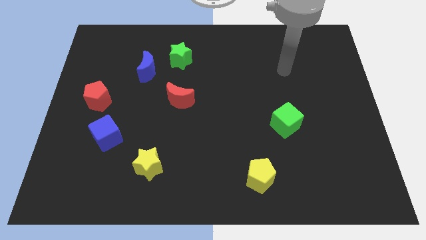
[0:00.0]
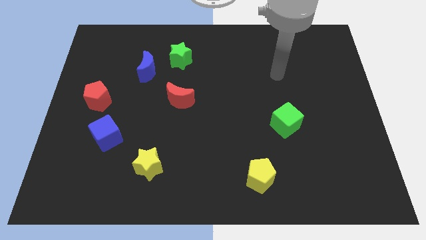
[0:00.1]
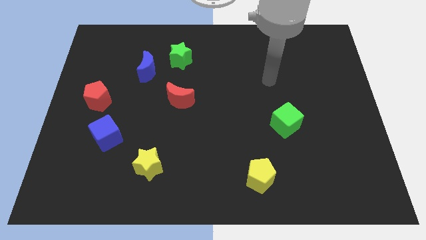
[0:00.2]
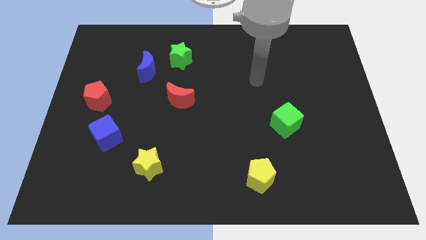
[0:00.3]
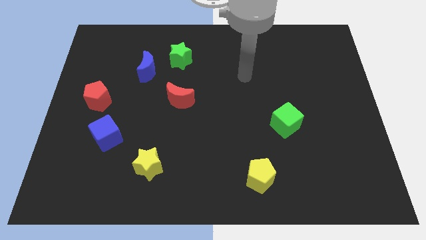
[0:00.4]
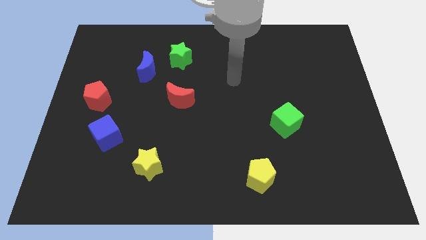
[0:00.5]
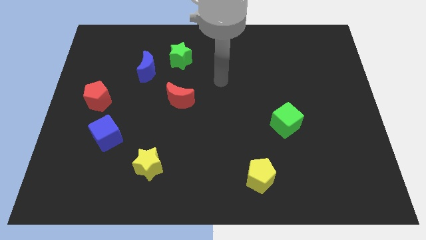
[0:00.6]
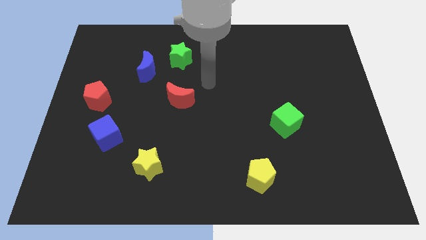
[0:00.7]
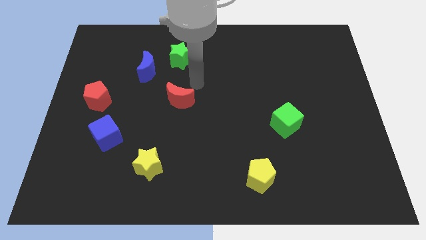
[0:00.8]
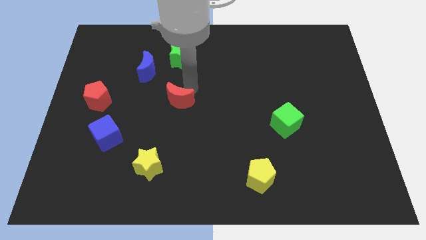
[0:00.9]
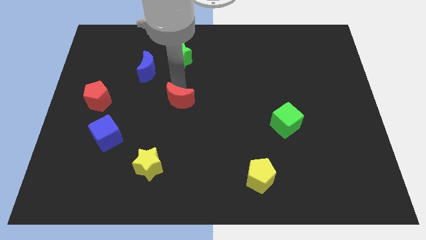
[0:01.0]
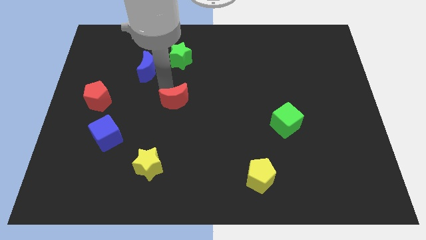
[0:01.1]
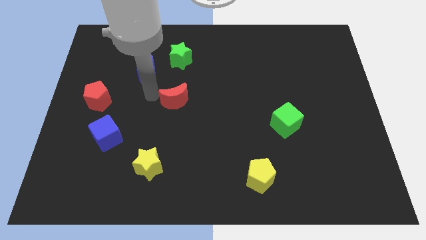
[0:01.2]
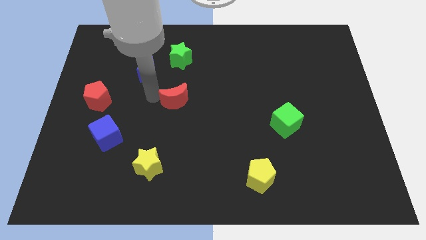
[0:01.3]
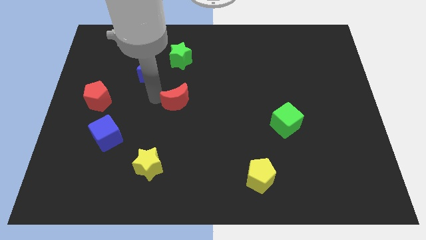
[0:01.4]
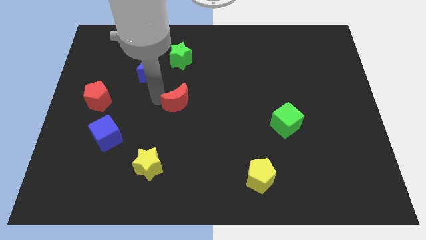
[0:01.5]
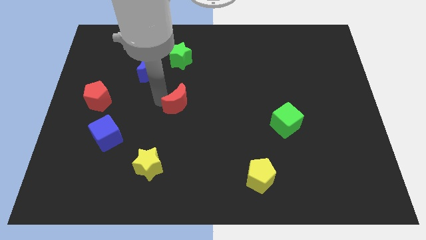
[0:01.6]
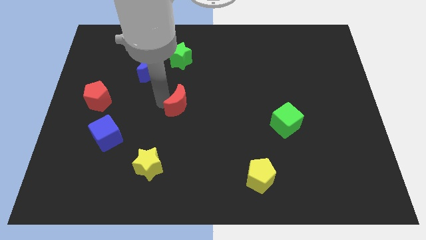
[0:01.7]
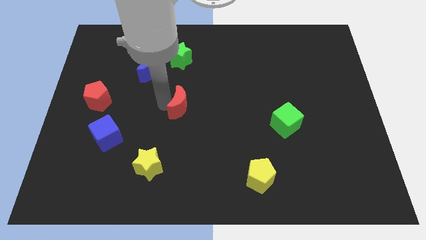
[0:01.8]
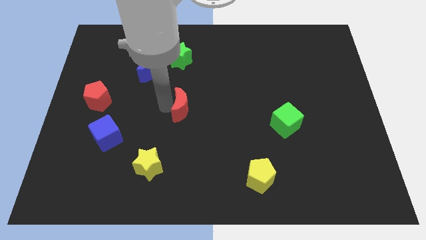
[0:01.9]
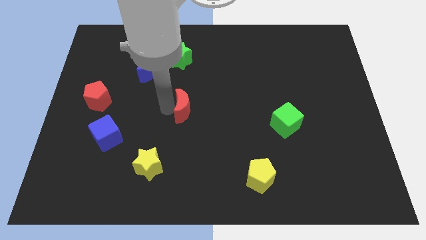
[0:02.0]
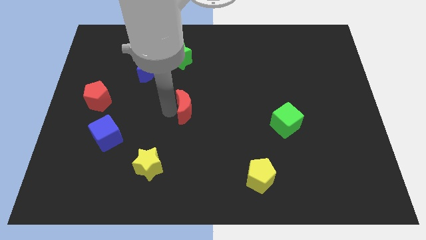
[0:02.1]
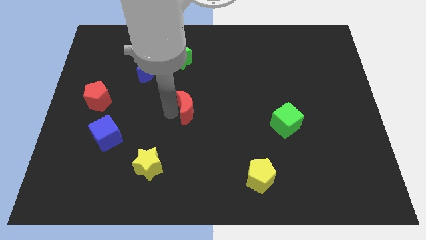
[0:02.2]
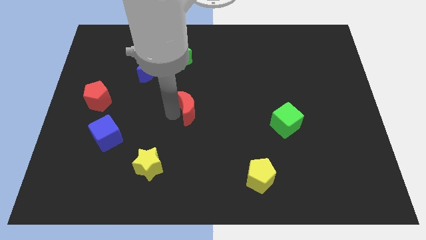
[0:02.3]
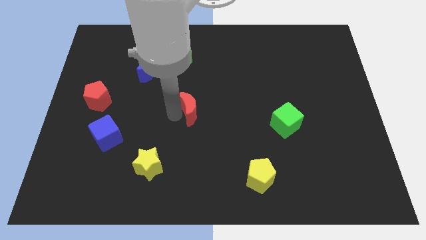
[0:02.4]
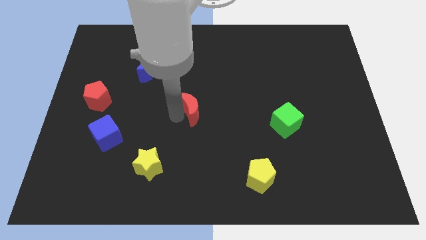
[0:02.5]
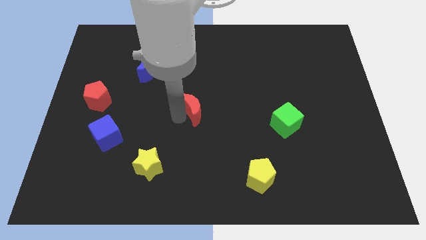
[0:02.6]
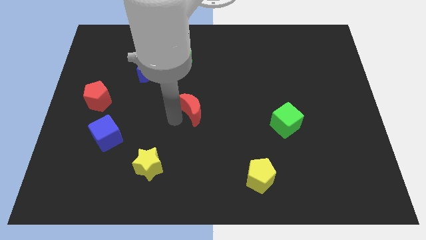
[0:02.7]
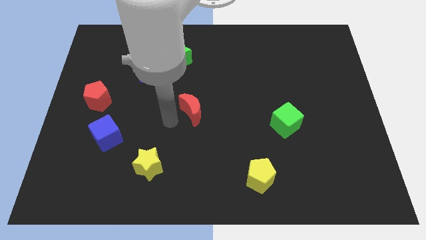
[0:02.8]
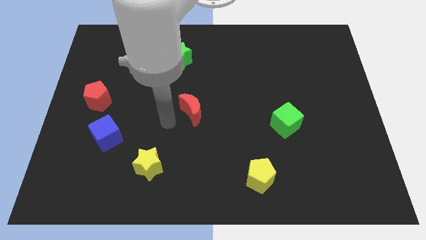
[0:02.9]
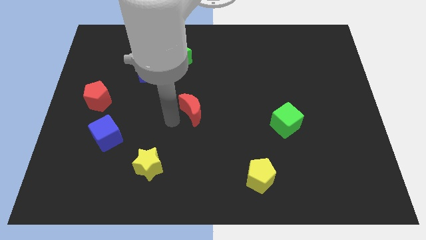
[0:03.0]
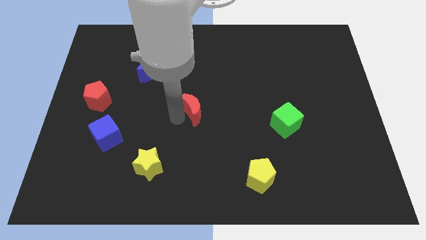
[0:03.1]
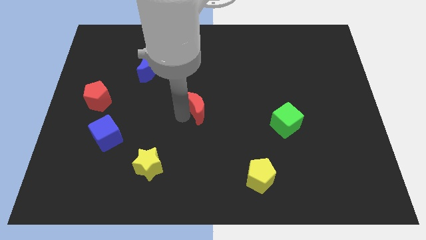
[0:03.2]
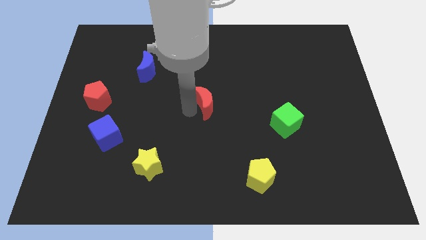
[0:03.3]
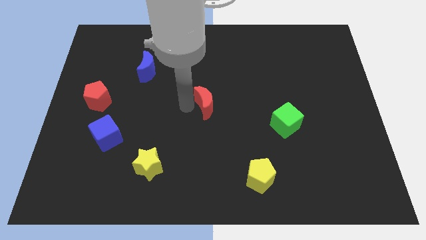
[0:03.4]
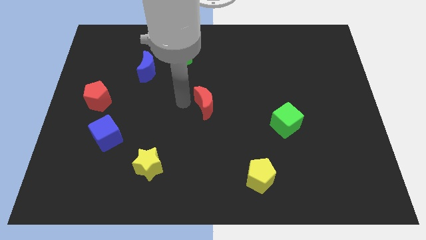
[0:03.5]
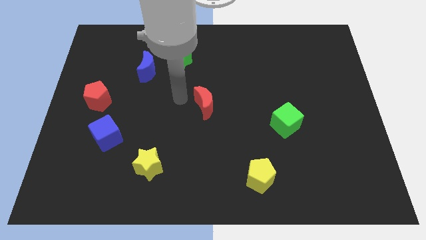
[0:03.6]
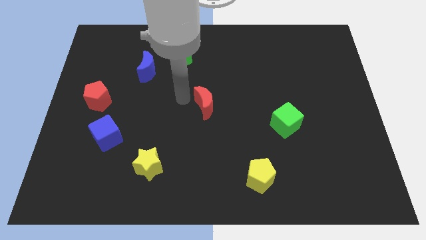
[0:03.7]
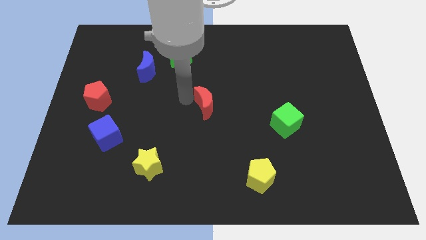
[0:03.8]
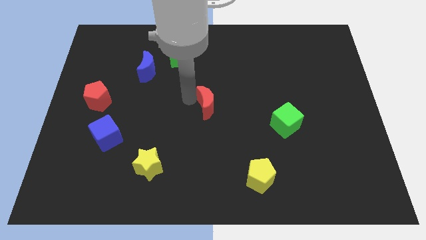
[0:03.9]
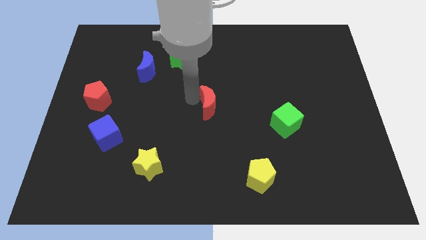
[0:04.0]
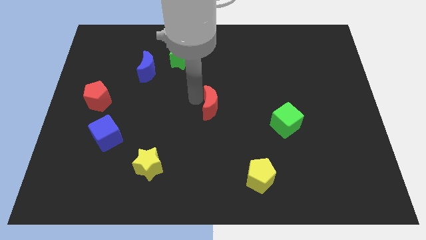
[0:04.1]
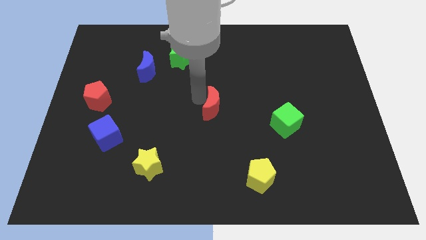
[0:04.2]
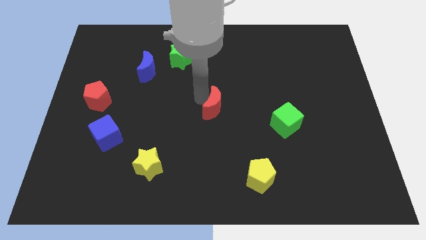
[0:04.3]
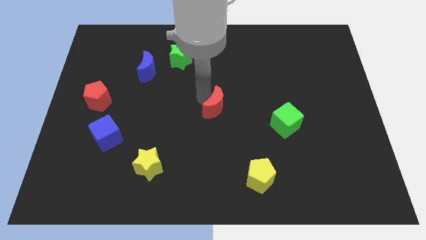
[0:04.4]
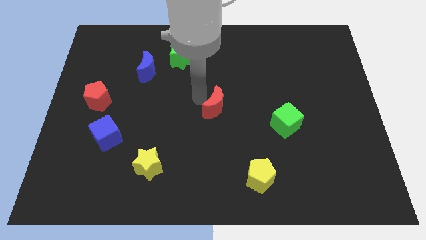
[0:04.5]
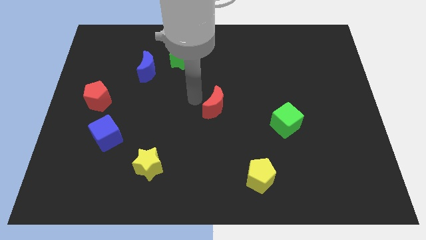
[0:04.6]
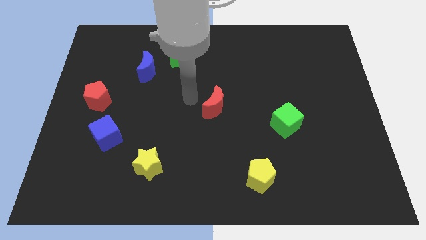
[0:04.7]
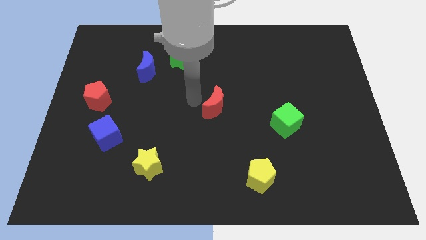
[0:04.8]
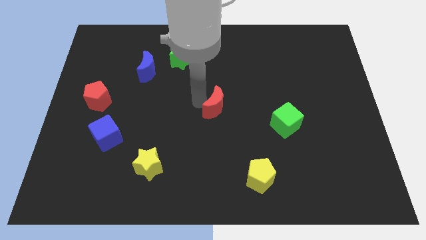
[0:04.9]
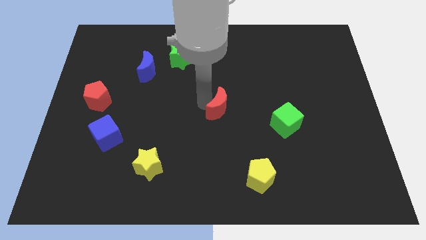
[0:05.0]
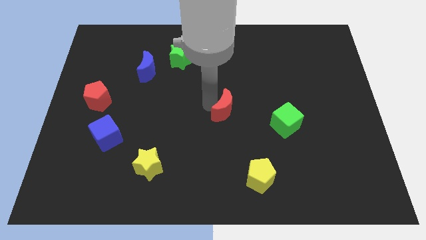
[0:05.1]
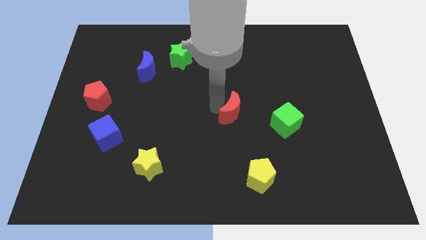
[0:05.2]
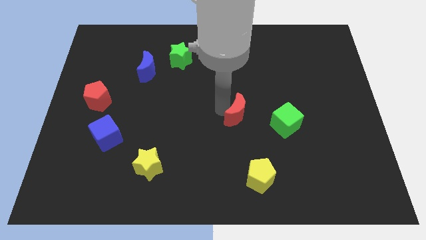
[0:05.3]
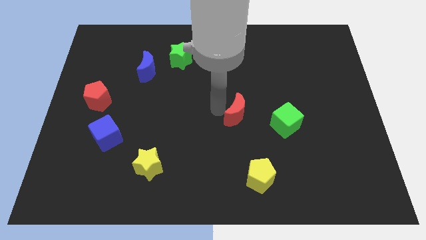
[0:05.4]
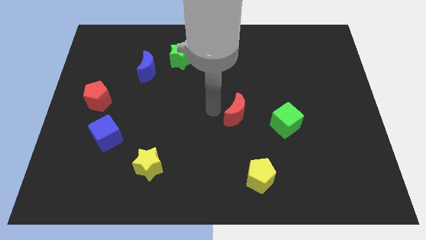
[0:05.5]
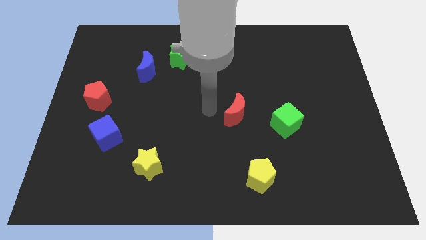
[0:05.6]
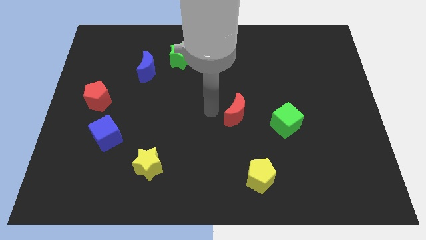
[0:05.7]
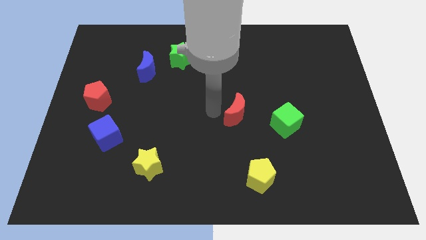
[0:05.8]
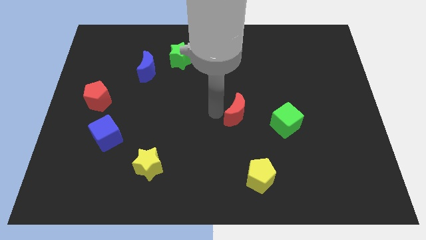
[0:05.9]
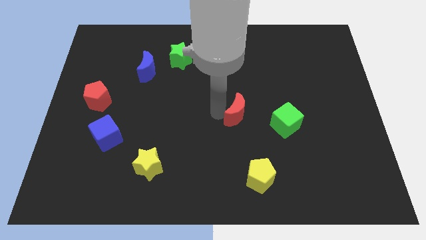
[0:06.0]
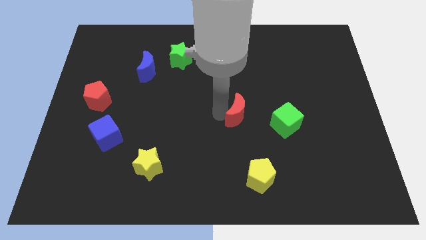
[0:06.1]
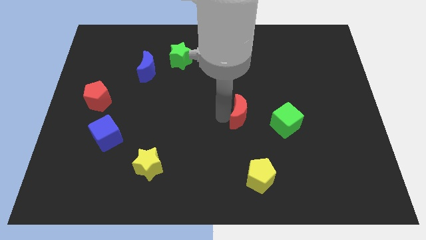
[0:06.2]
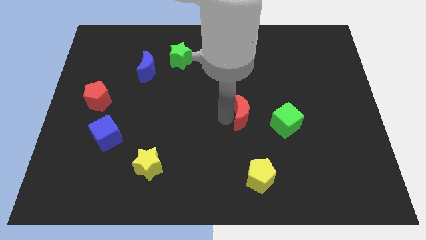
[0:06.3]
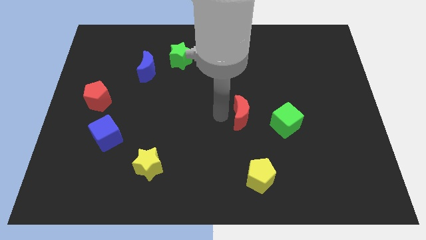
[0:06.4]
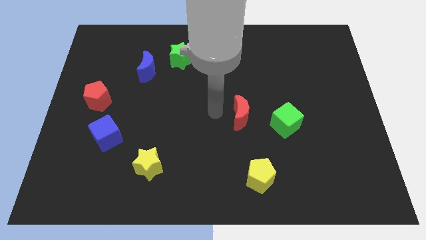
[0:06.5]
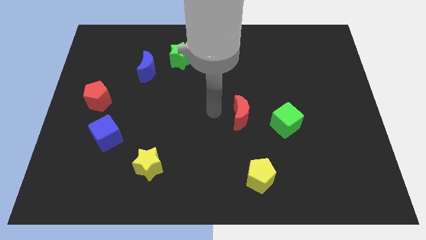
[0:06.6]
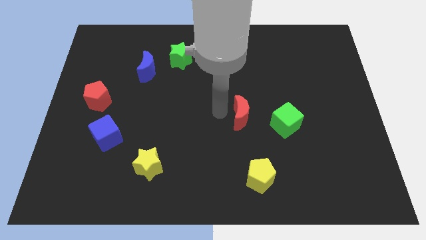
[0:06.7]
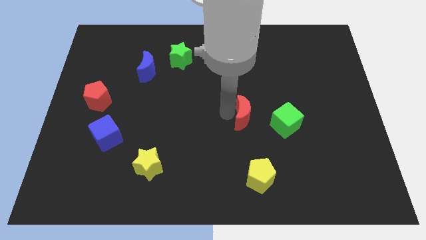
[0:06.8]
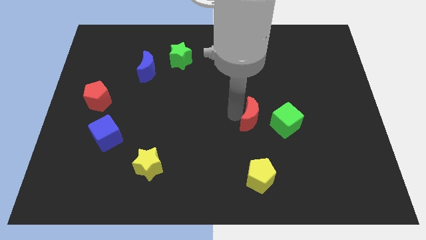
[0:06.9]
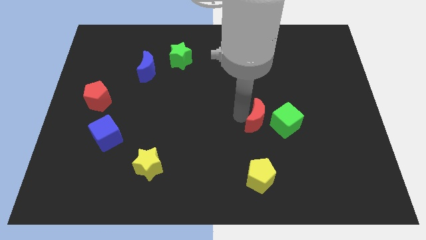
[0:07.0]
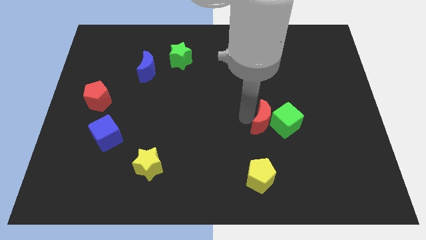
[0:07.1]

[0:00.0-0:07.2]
push the red moon close to the green cube
